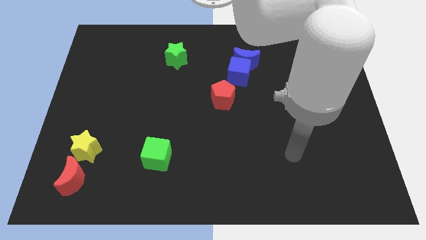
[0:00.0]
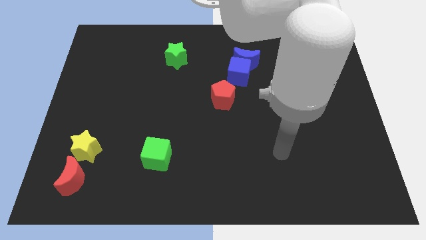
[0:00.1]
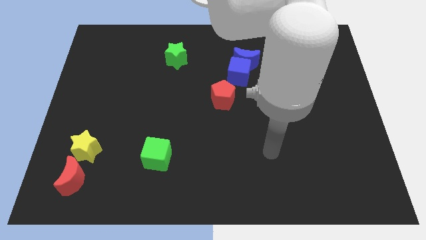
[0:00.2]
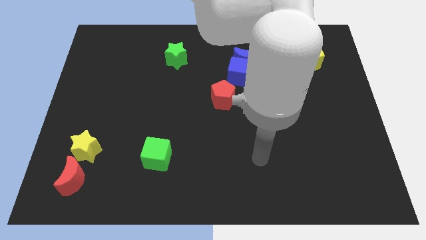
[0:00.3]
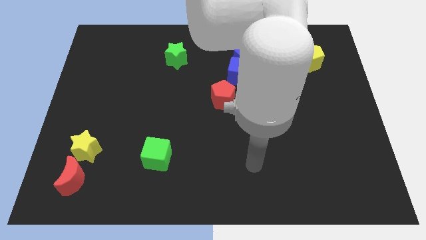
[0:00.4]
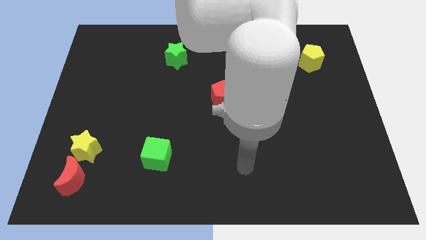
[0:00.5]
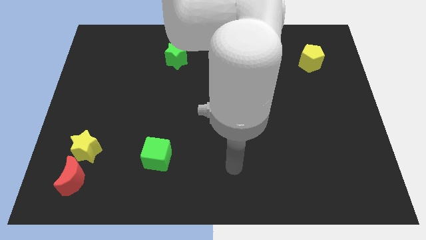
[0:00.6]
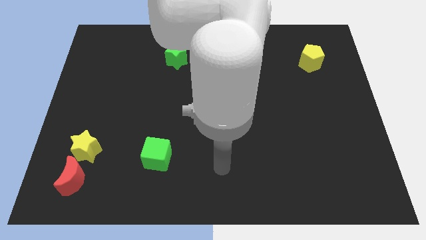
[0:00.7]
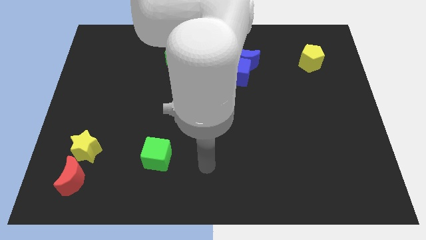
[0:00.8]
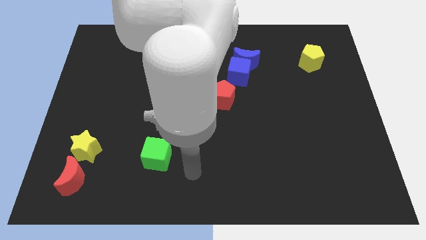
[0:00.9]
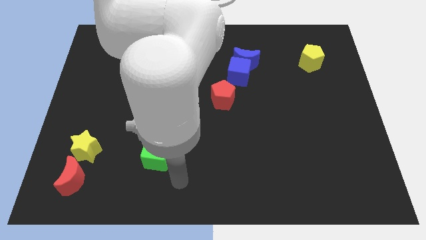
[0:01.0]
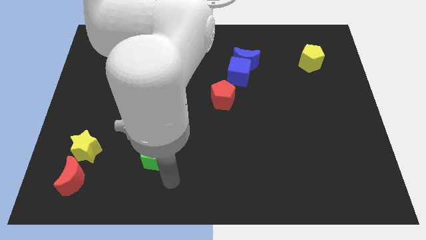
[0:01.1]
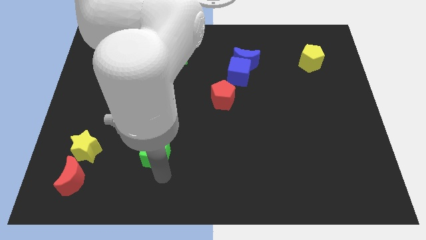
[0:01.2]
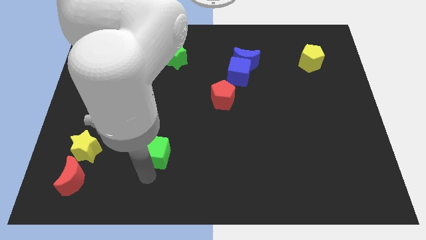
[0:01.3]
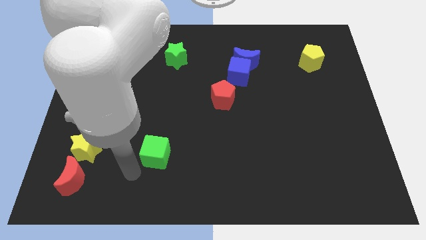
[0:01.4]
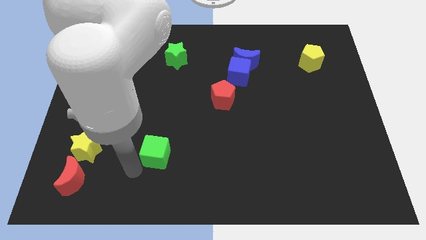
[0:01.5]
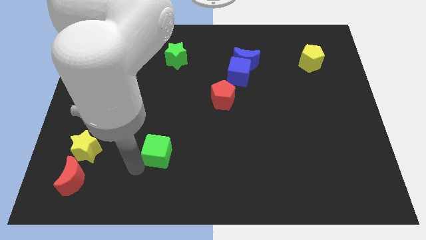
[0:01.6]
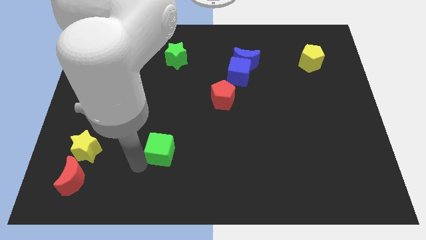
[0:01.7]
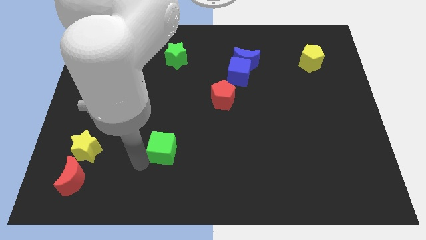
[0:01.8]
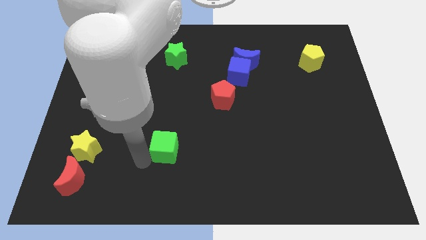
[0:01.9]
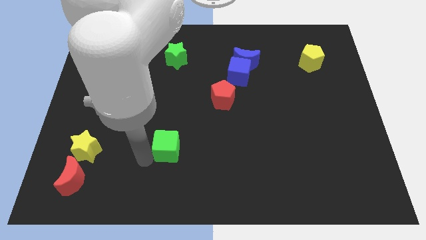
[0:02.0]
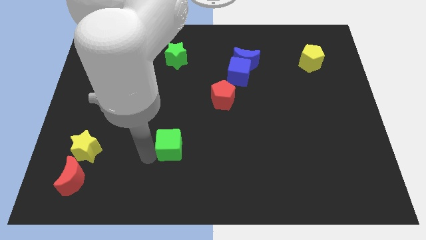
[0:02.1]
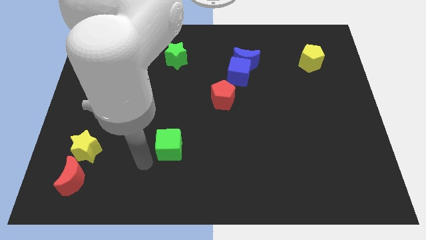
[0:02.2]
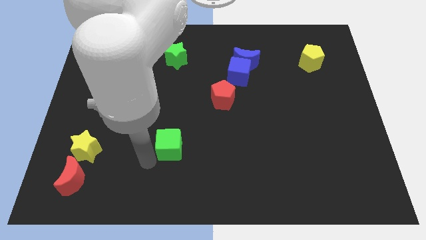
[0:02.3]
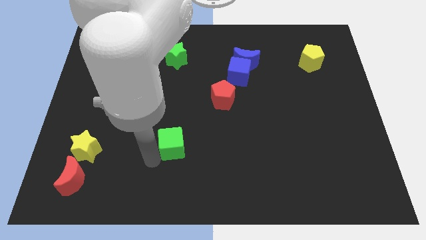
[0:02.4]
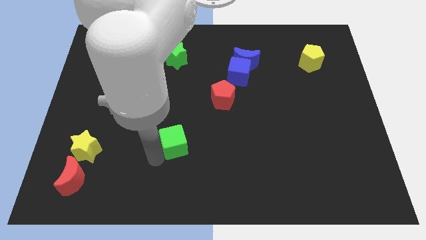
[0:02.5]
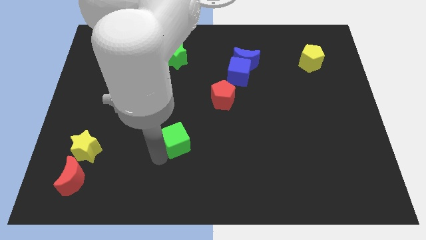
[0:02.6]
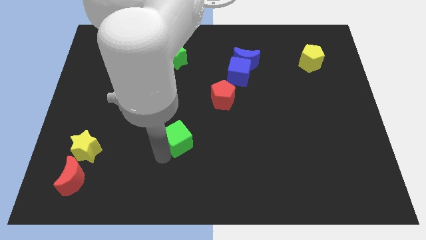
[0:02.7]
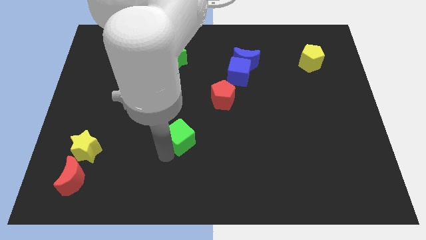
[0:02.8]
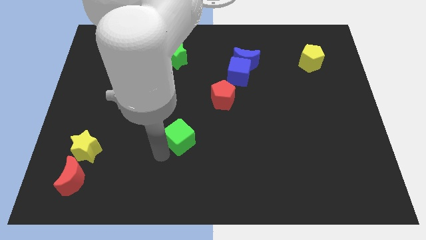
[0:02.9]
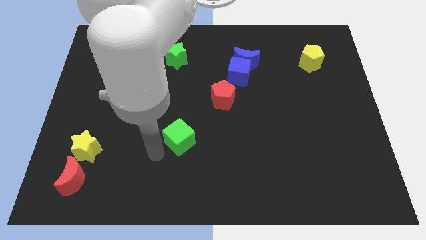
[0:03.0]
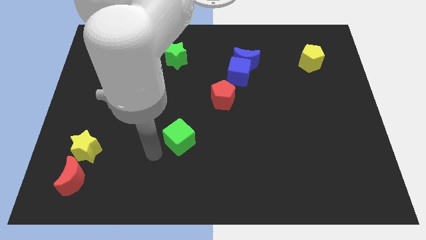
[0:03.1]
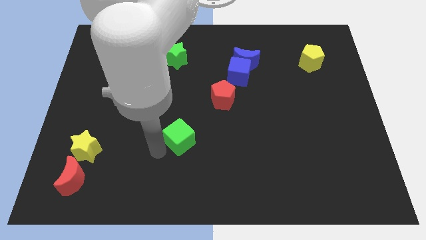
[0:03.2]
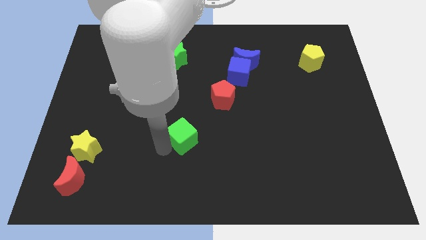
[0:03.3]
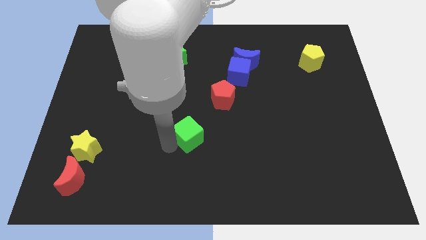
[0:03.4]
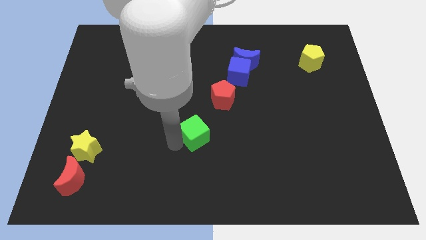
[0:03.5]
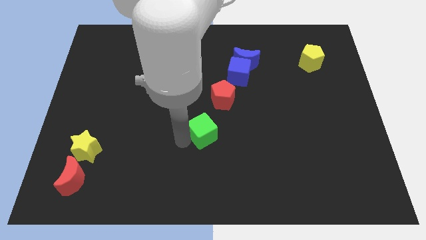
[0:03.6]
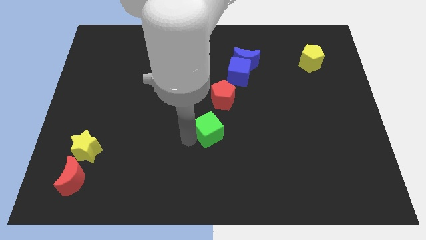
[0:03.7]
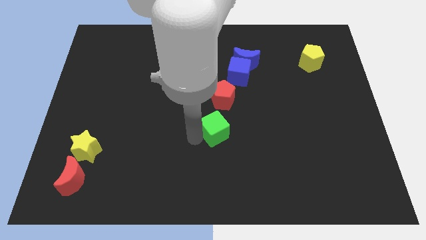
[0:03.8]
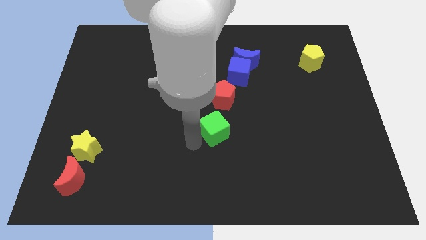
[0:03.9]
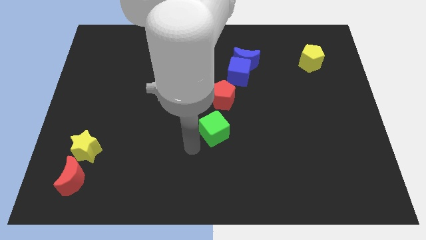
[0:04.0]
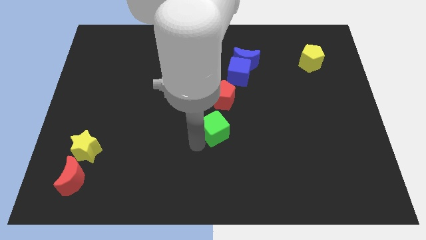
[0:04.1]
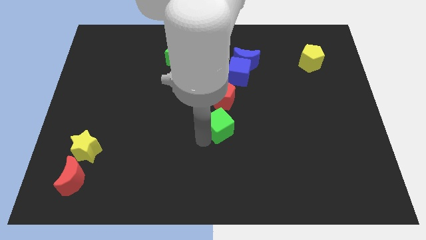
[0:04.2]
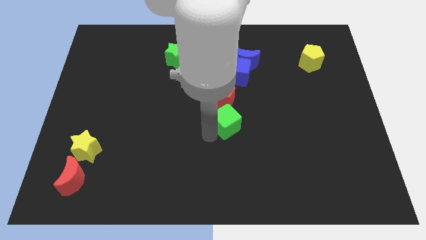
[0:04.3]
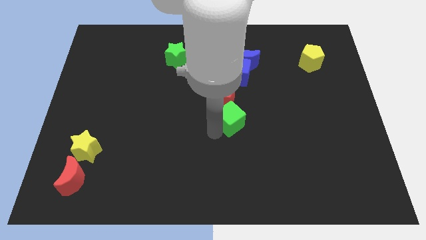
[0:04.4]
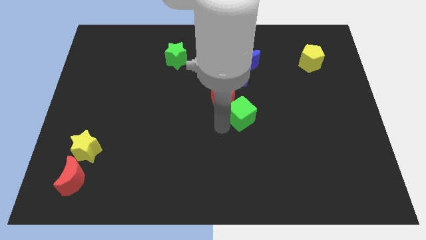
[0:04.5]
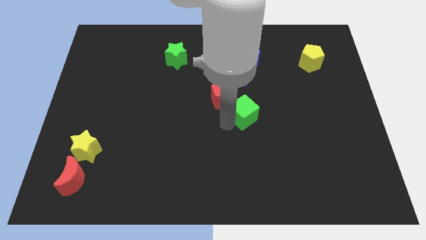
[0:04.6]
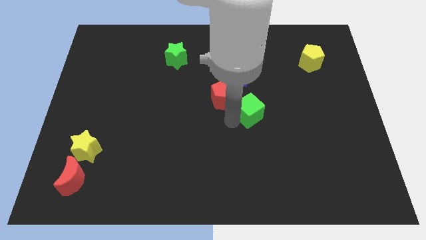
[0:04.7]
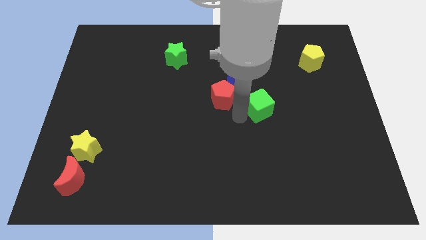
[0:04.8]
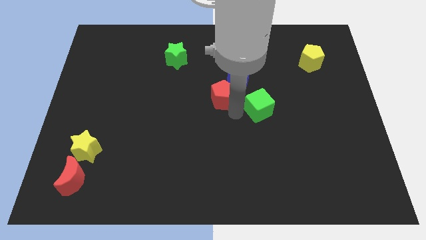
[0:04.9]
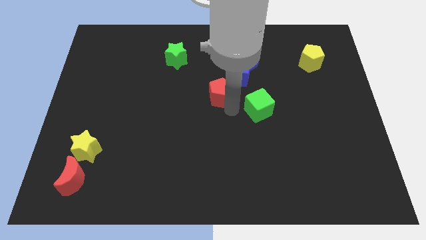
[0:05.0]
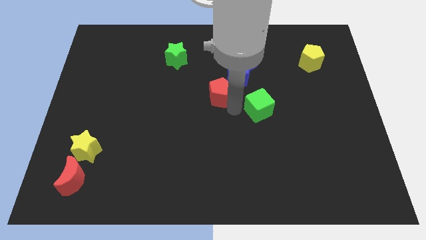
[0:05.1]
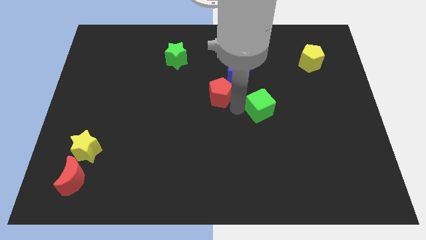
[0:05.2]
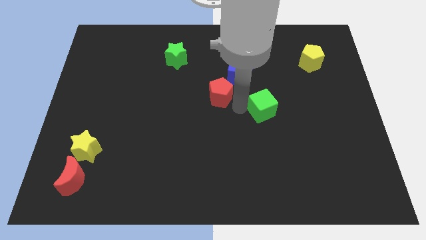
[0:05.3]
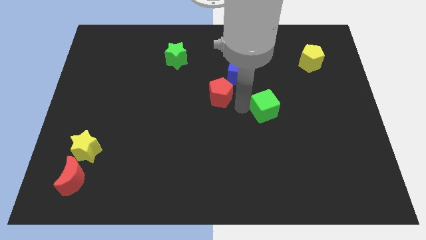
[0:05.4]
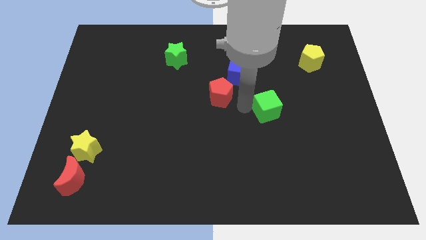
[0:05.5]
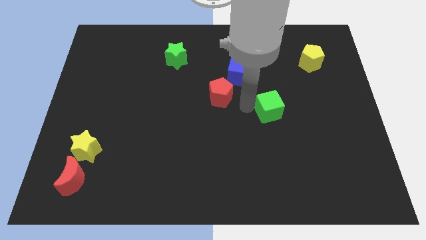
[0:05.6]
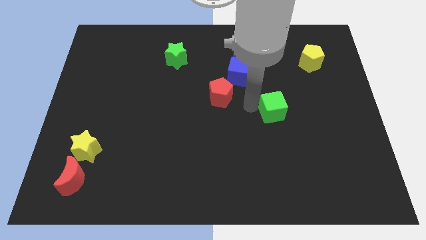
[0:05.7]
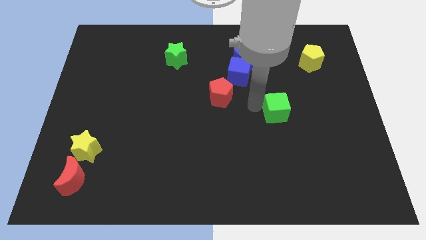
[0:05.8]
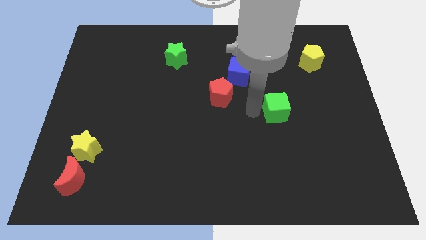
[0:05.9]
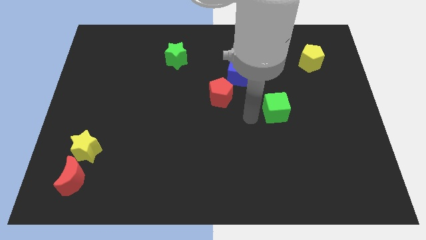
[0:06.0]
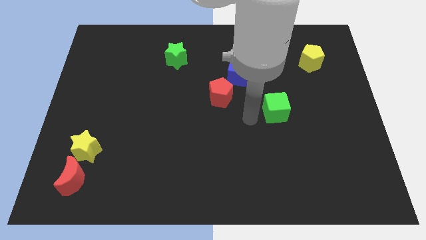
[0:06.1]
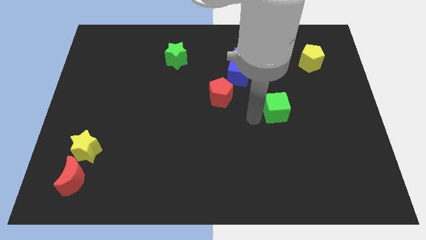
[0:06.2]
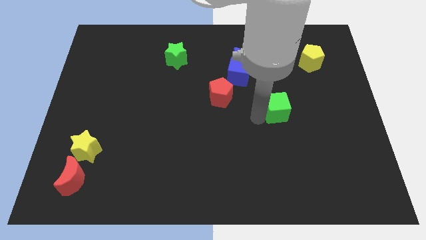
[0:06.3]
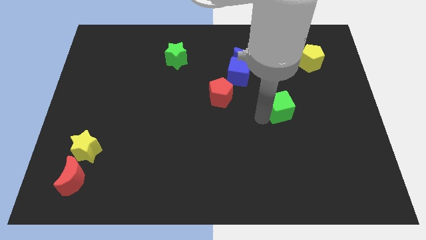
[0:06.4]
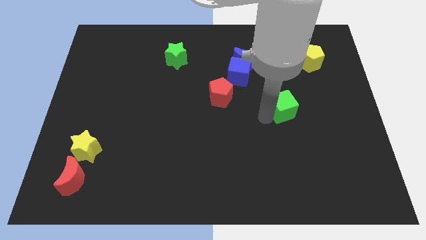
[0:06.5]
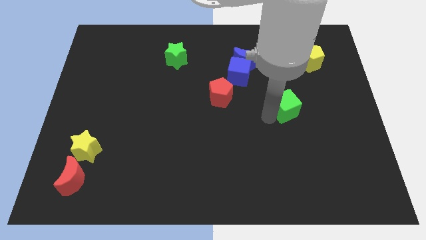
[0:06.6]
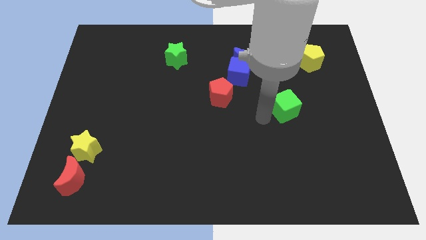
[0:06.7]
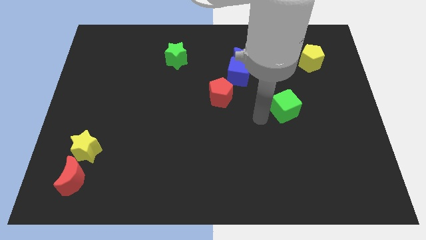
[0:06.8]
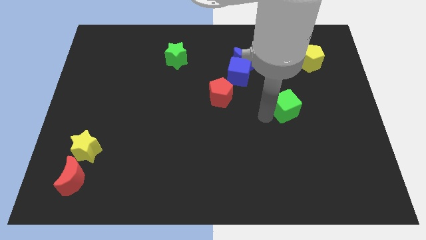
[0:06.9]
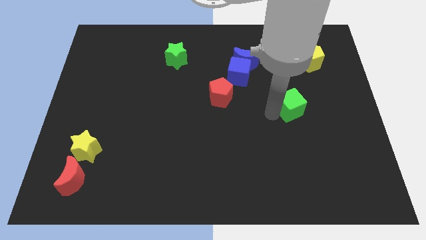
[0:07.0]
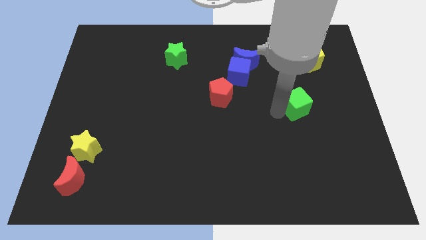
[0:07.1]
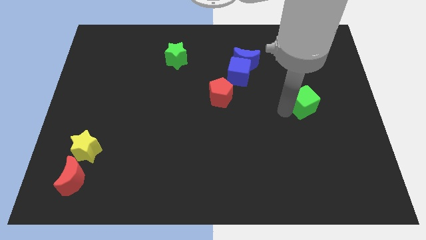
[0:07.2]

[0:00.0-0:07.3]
put the green cube to the bottom side of the yellow pentagon
